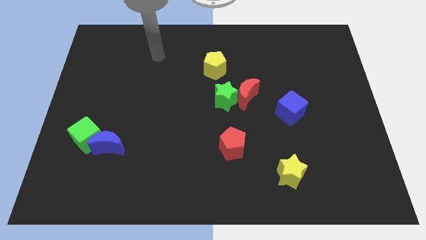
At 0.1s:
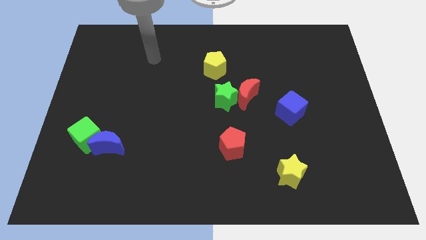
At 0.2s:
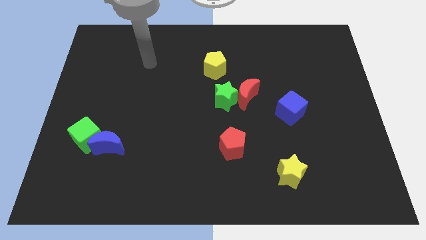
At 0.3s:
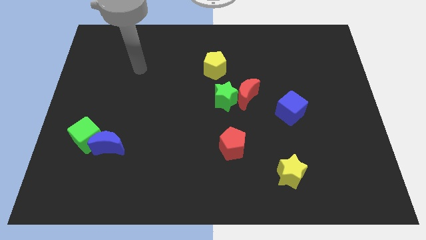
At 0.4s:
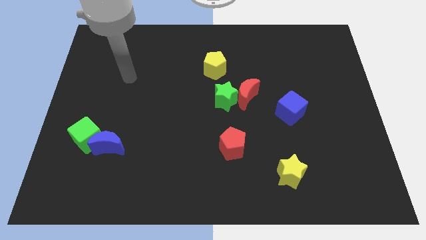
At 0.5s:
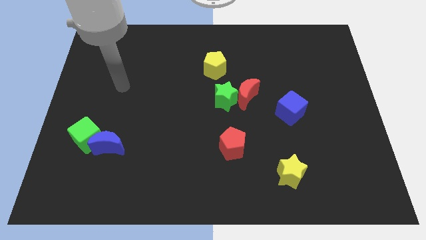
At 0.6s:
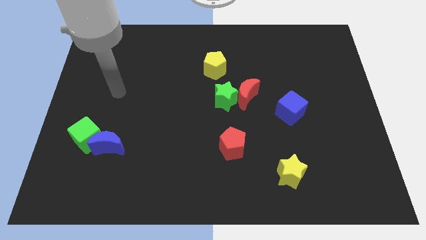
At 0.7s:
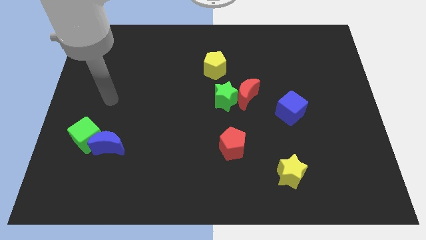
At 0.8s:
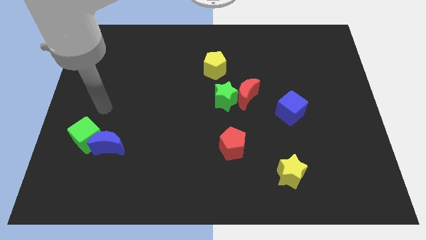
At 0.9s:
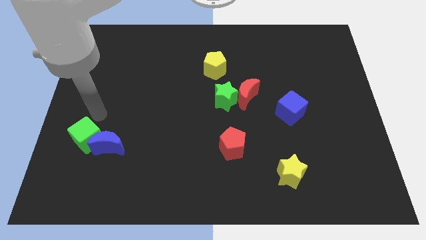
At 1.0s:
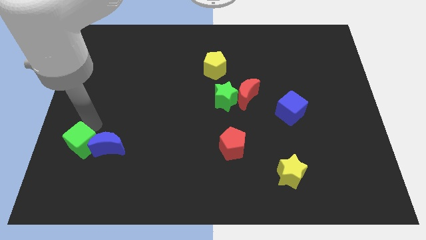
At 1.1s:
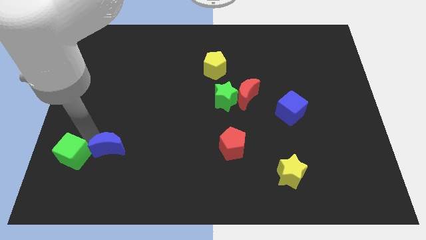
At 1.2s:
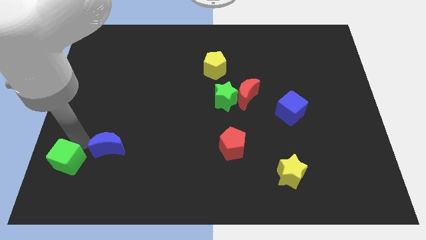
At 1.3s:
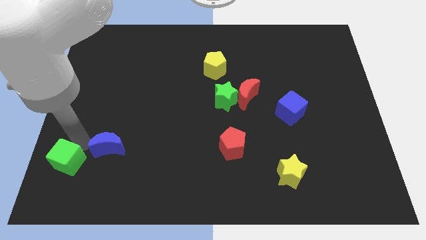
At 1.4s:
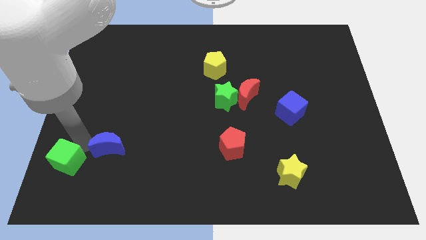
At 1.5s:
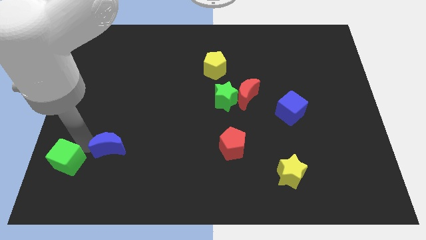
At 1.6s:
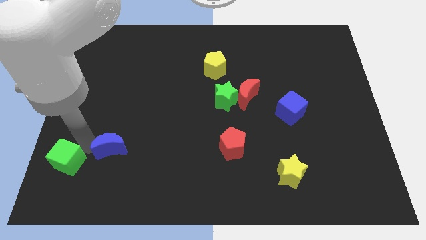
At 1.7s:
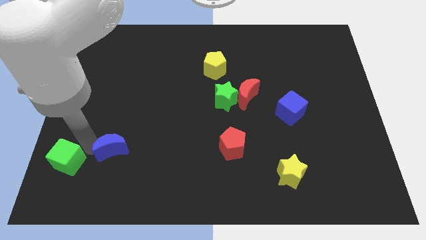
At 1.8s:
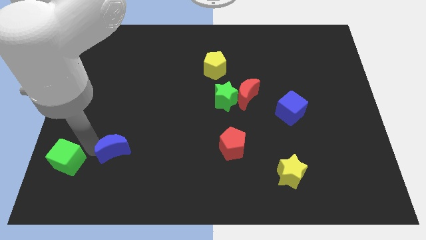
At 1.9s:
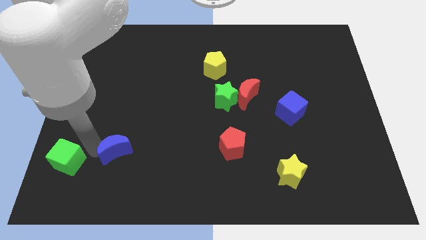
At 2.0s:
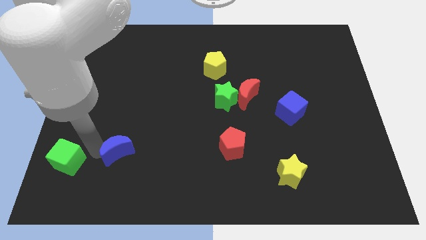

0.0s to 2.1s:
separate the blue moon from the green cube

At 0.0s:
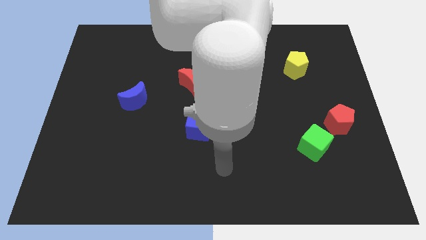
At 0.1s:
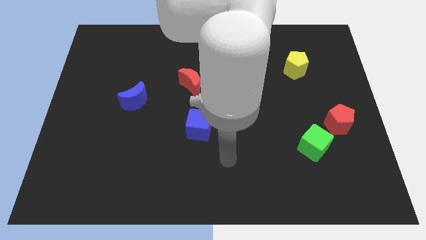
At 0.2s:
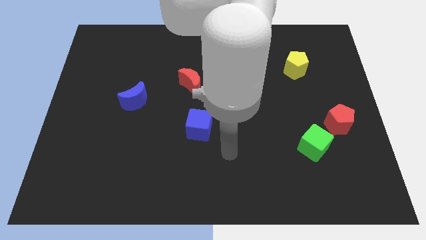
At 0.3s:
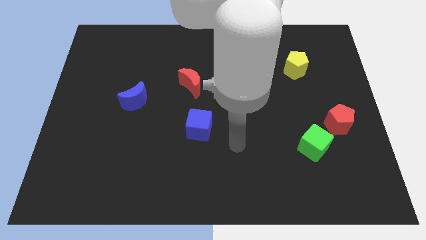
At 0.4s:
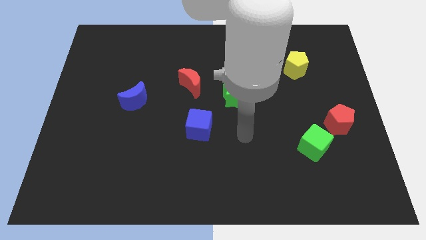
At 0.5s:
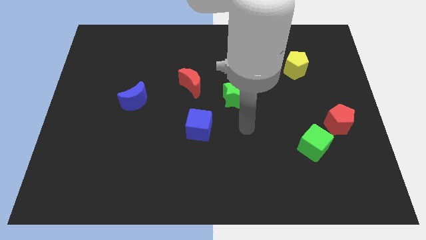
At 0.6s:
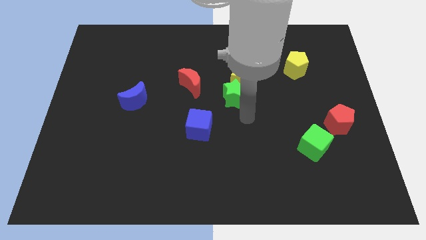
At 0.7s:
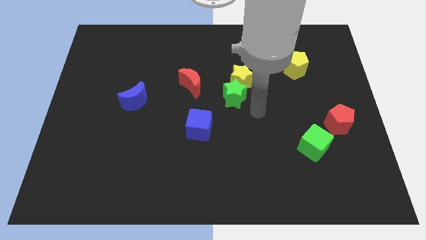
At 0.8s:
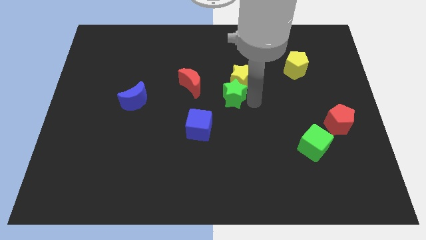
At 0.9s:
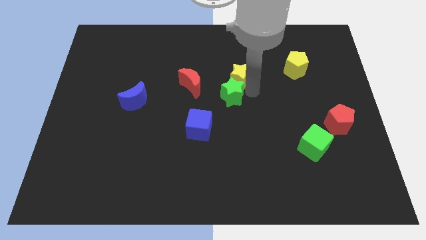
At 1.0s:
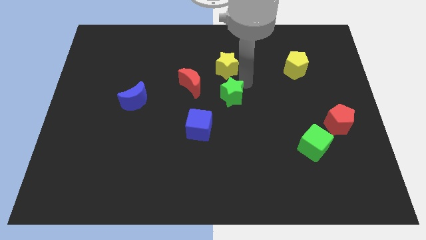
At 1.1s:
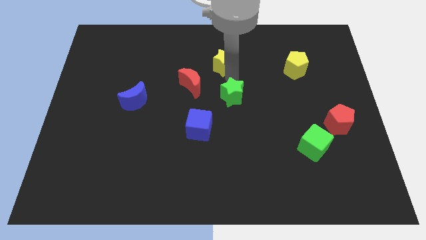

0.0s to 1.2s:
move the green star away from the yellow star

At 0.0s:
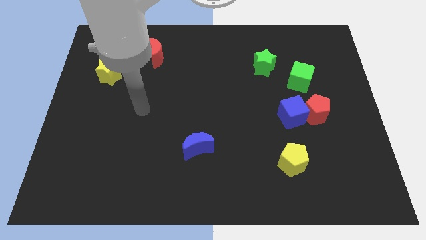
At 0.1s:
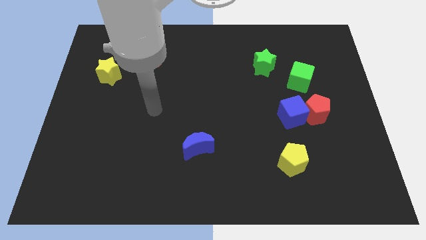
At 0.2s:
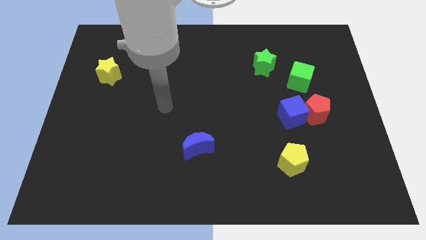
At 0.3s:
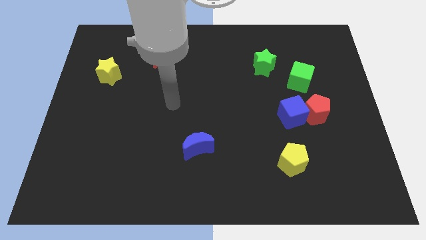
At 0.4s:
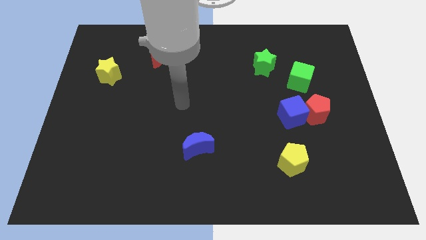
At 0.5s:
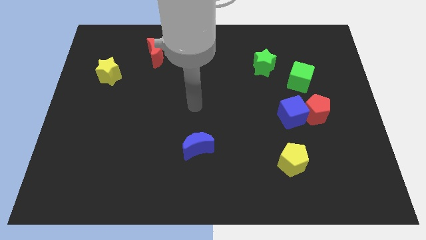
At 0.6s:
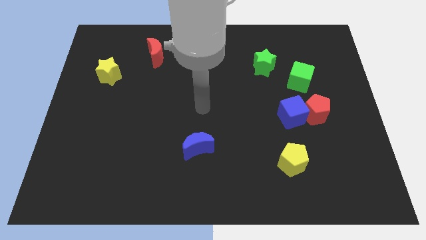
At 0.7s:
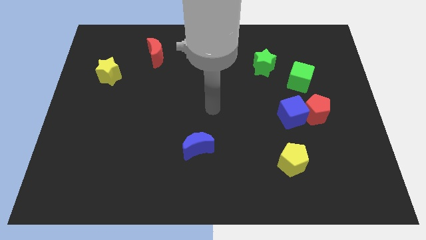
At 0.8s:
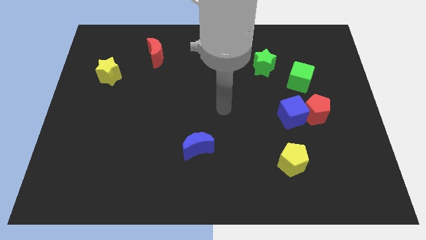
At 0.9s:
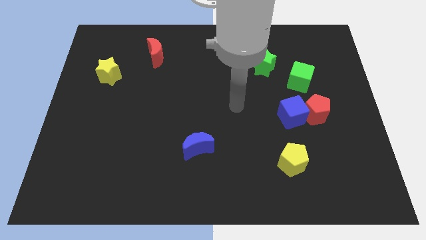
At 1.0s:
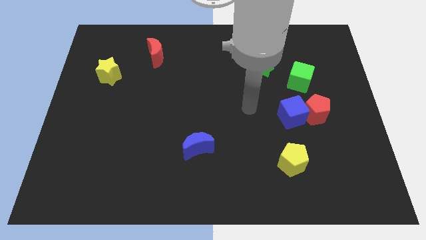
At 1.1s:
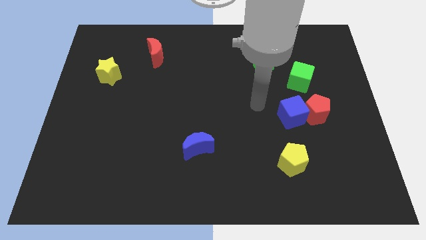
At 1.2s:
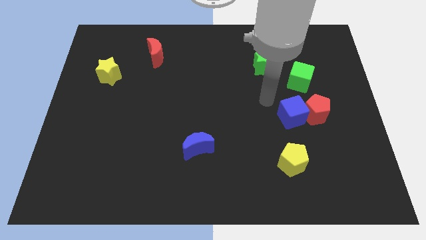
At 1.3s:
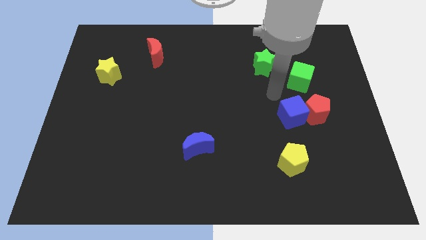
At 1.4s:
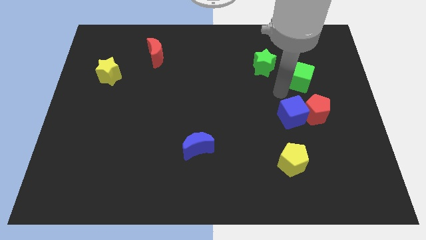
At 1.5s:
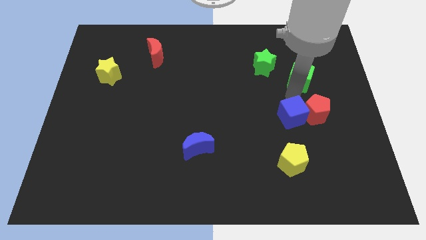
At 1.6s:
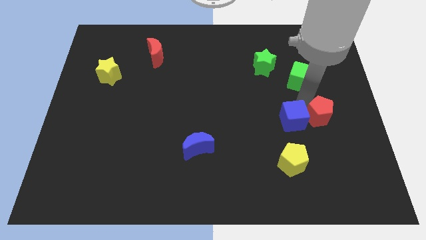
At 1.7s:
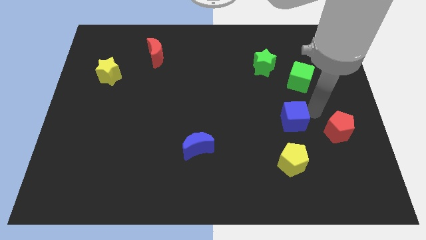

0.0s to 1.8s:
separate the blue cube from the red pentagon

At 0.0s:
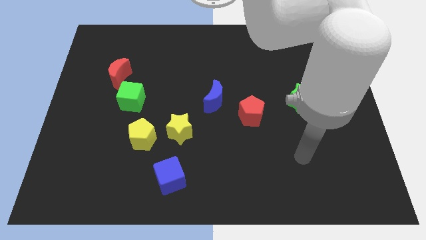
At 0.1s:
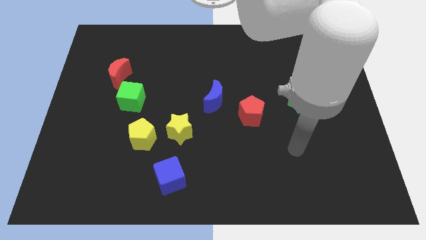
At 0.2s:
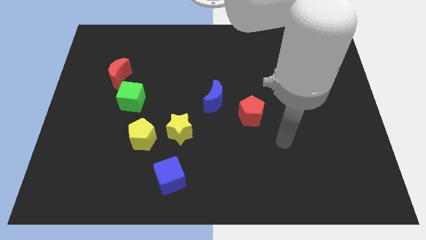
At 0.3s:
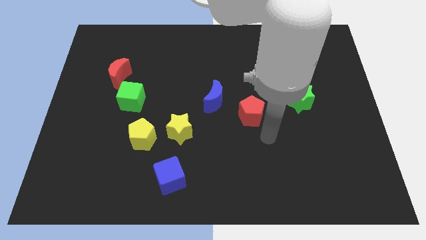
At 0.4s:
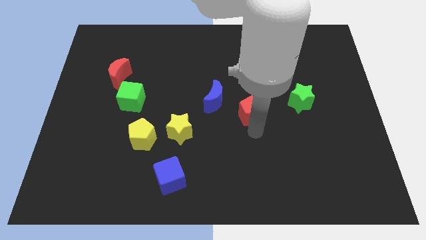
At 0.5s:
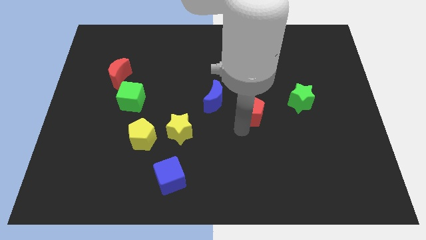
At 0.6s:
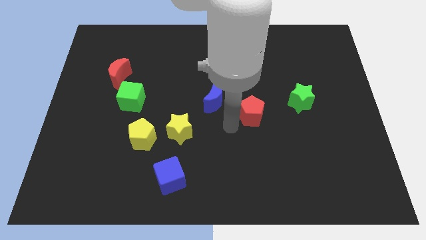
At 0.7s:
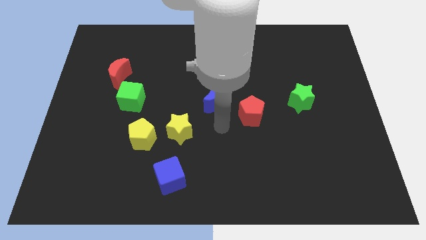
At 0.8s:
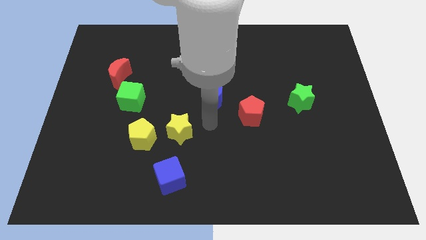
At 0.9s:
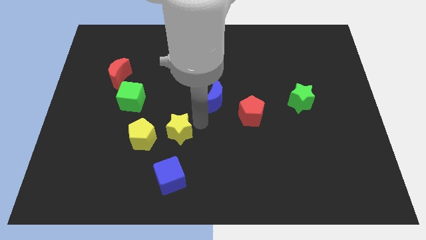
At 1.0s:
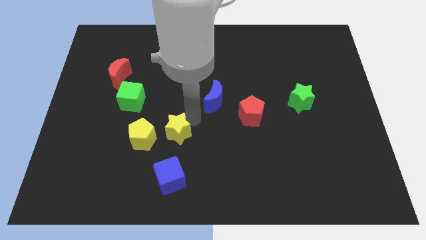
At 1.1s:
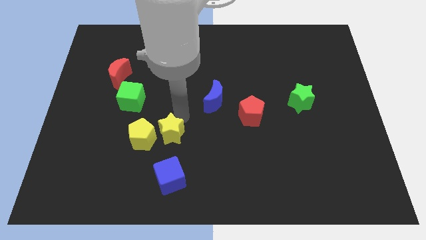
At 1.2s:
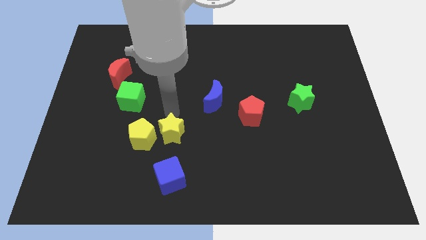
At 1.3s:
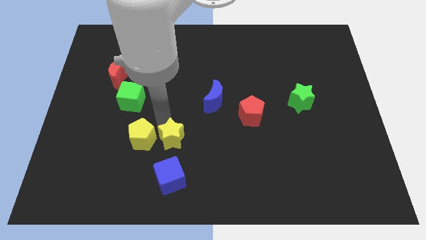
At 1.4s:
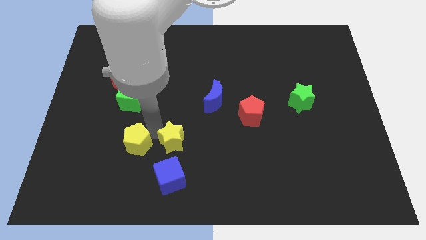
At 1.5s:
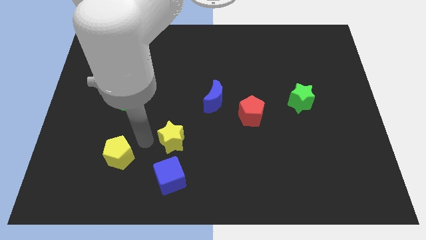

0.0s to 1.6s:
move the yellow star away from the yellow pentagon

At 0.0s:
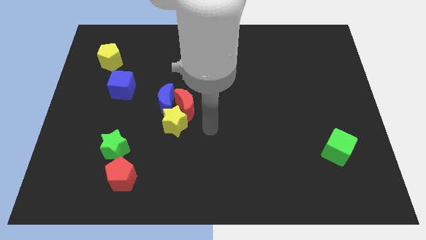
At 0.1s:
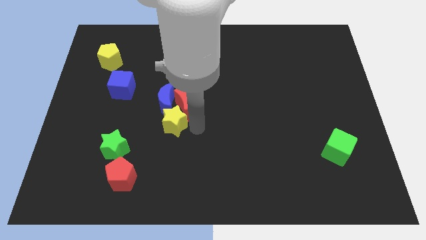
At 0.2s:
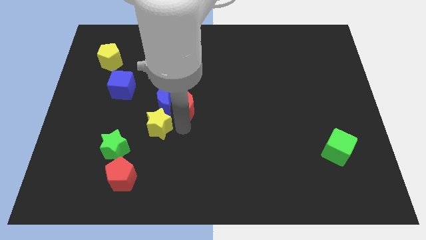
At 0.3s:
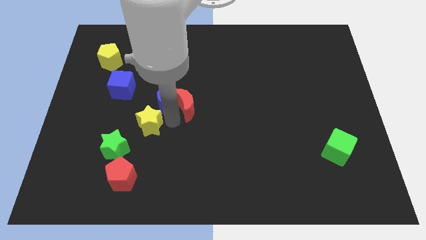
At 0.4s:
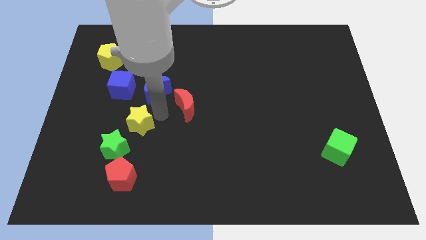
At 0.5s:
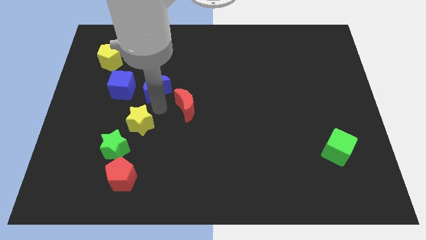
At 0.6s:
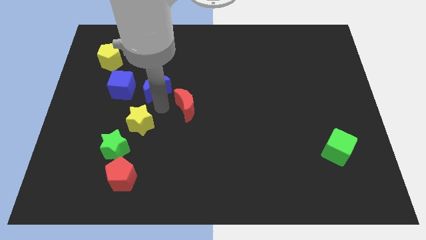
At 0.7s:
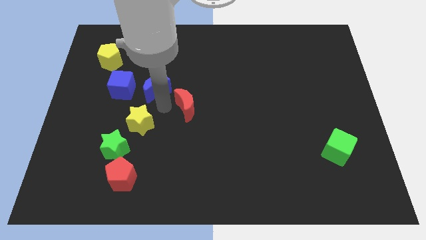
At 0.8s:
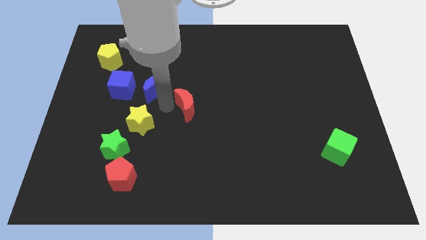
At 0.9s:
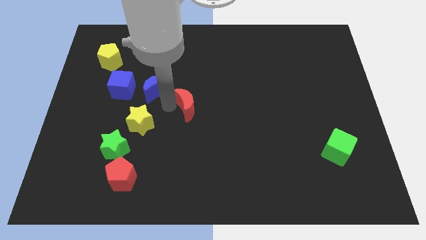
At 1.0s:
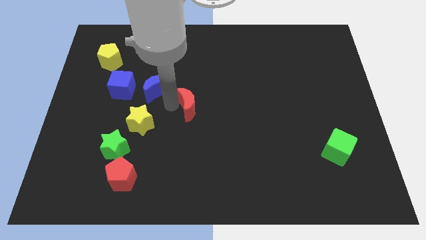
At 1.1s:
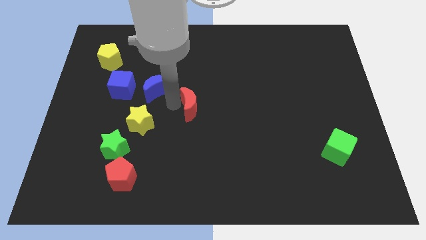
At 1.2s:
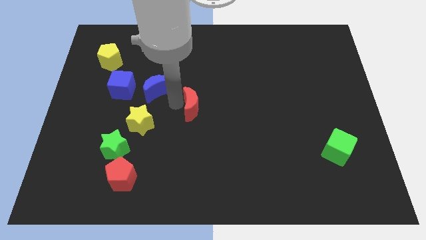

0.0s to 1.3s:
separate the red moon from the blue moon and yellow star

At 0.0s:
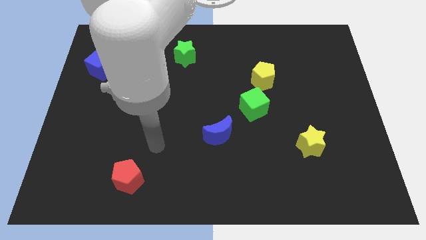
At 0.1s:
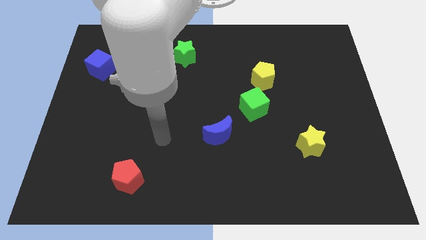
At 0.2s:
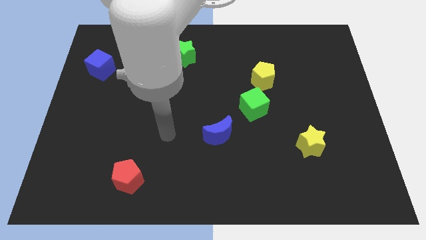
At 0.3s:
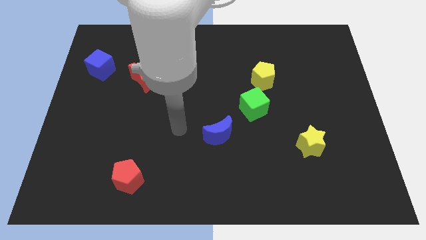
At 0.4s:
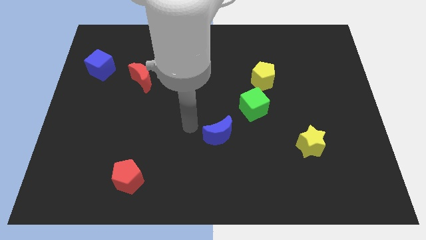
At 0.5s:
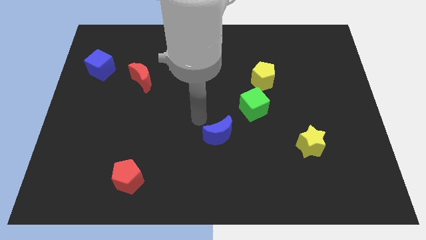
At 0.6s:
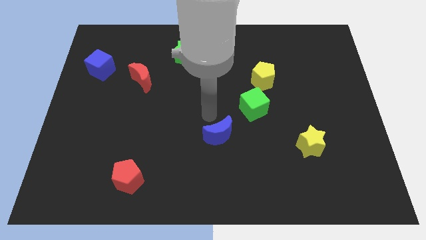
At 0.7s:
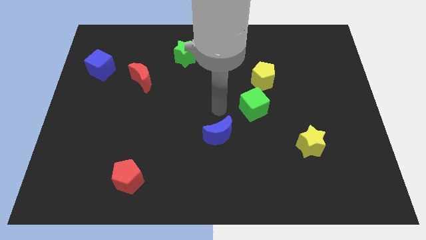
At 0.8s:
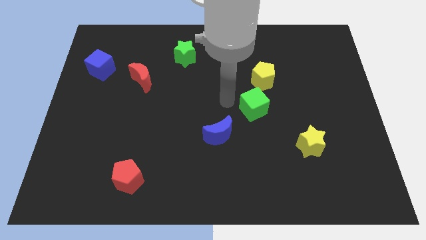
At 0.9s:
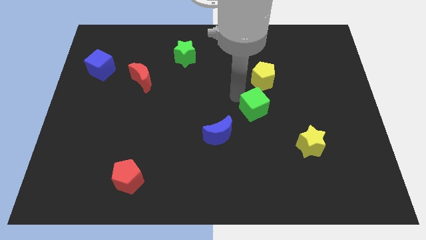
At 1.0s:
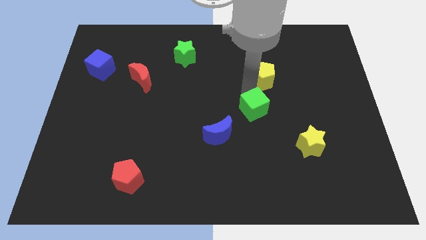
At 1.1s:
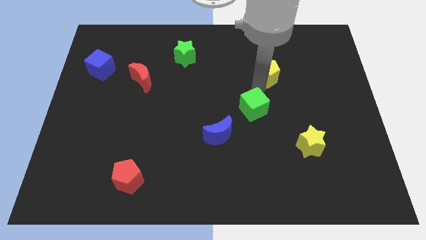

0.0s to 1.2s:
pull the green cube apart from the yellow pentagon
